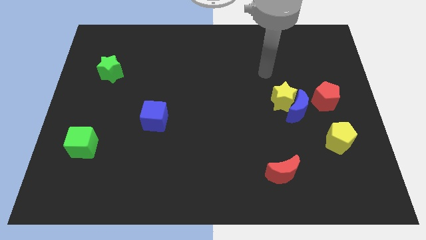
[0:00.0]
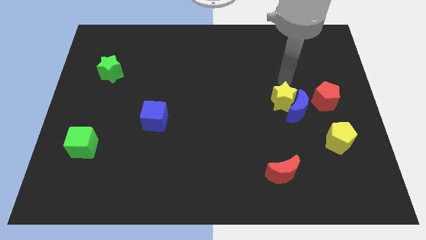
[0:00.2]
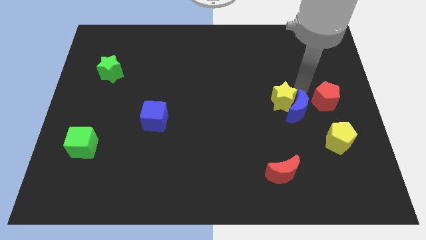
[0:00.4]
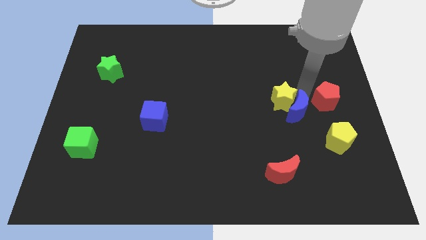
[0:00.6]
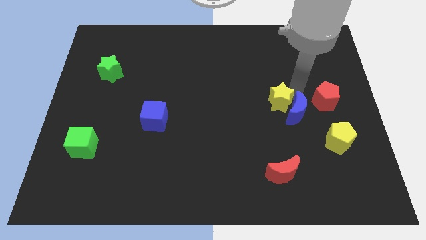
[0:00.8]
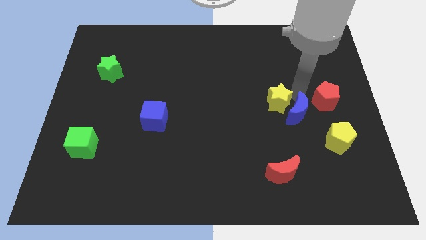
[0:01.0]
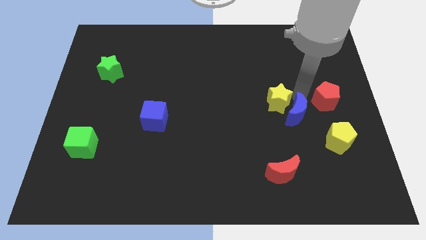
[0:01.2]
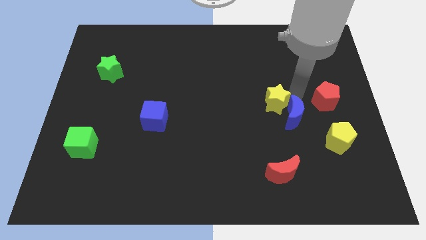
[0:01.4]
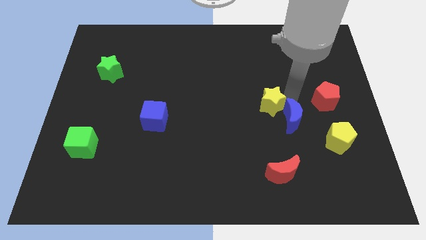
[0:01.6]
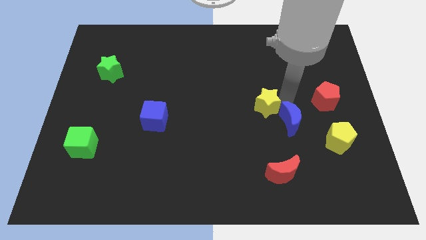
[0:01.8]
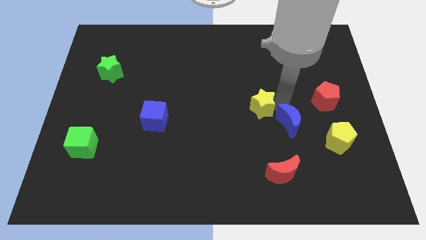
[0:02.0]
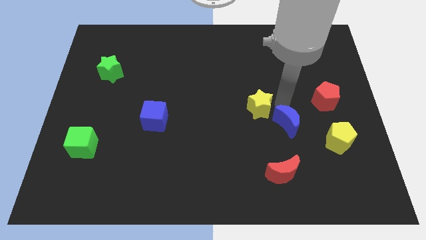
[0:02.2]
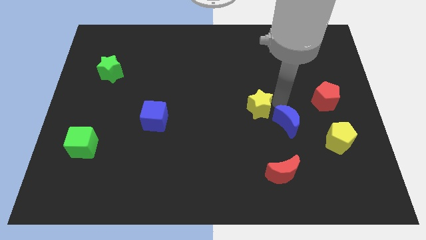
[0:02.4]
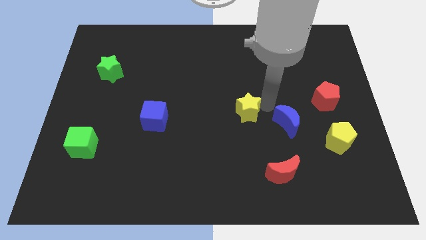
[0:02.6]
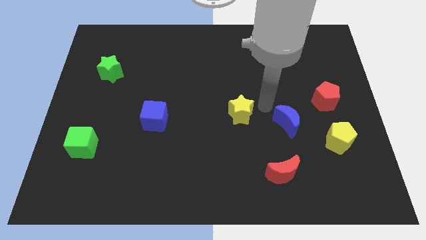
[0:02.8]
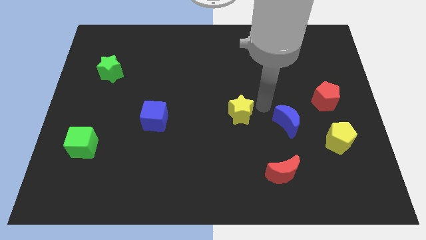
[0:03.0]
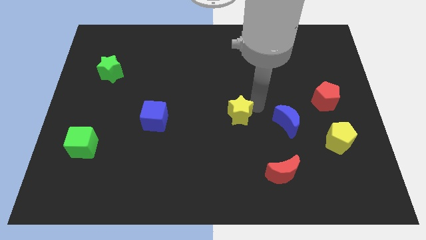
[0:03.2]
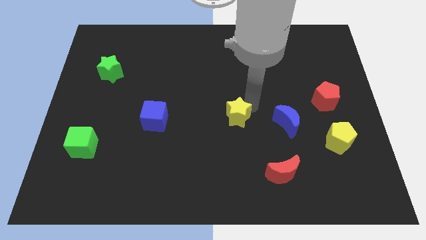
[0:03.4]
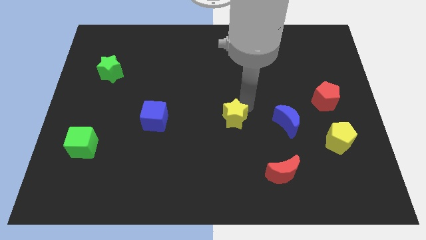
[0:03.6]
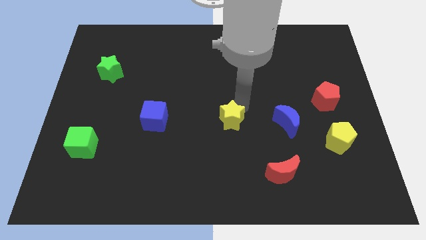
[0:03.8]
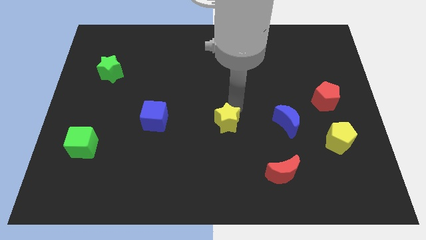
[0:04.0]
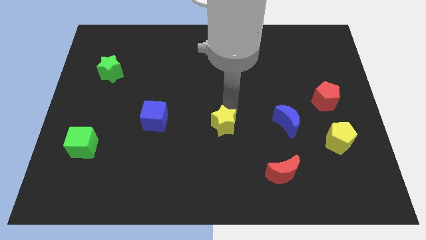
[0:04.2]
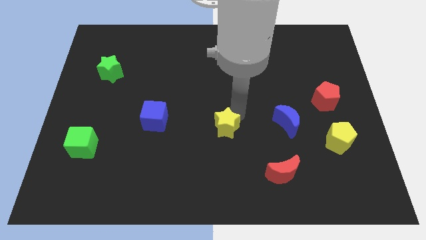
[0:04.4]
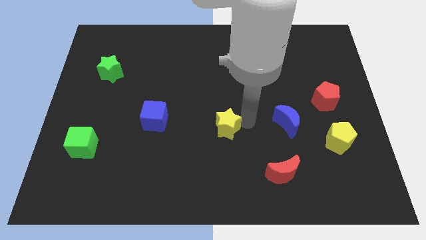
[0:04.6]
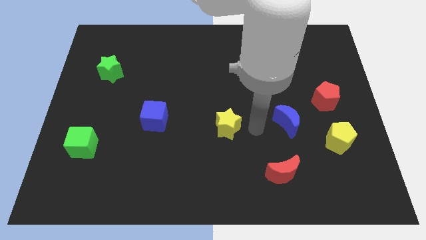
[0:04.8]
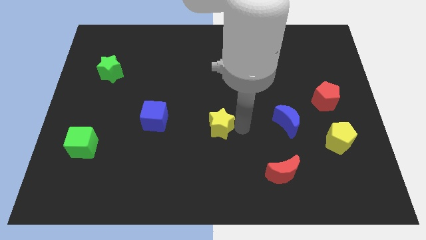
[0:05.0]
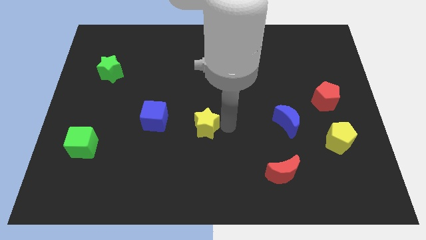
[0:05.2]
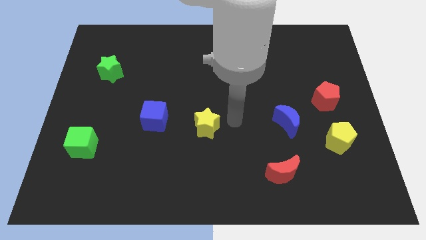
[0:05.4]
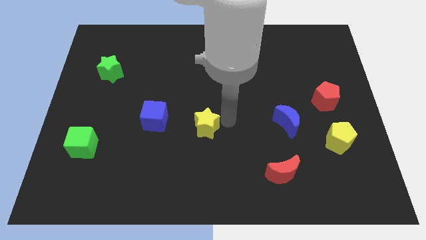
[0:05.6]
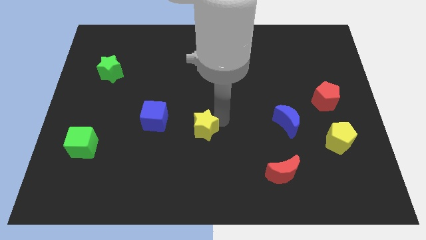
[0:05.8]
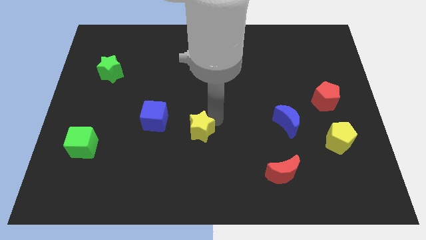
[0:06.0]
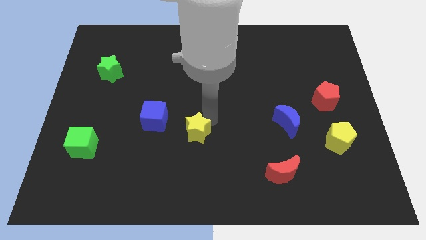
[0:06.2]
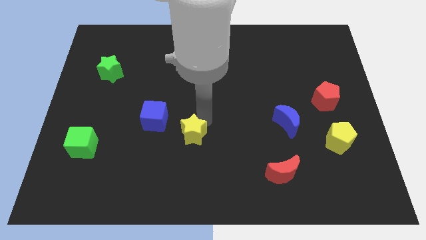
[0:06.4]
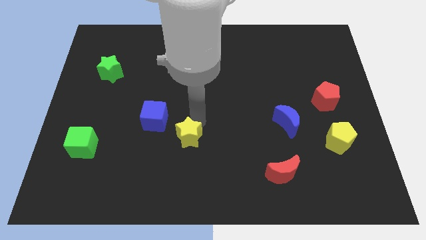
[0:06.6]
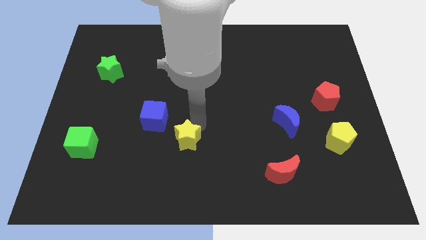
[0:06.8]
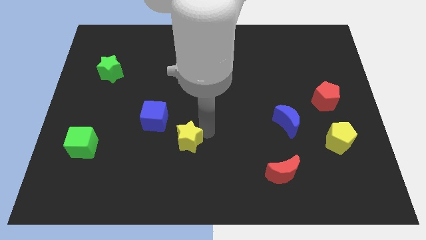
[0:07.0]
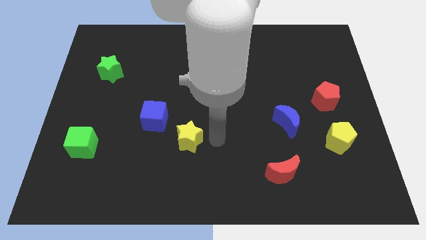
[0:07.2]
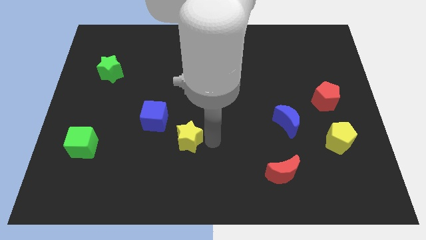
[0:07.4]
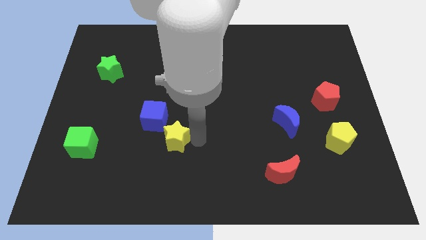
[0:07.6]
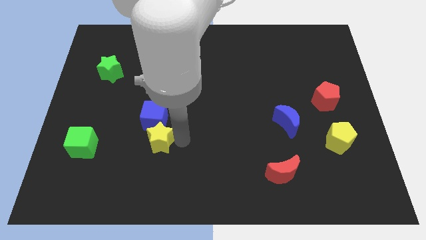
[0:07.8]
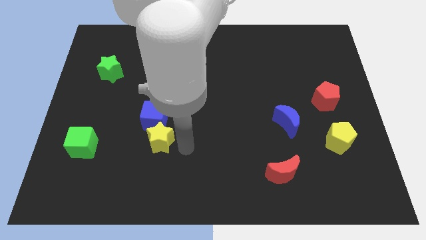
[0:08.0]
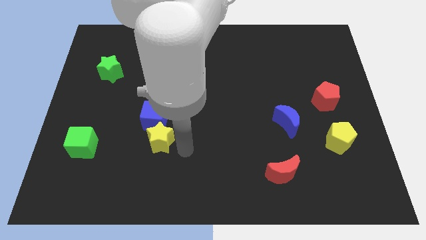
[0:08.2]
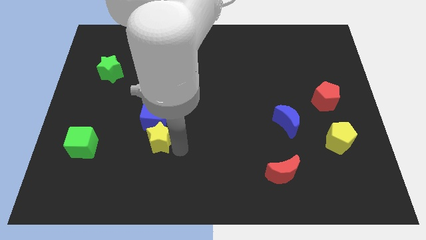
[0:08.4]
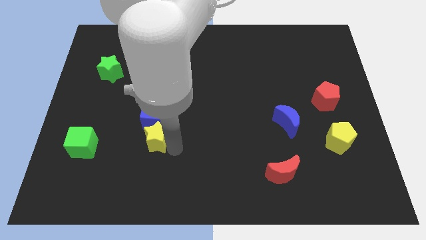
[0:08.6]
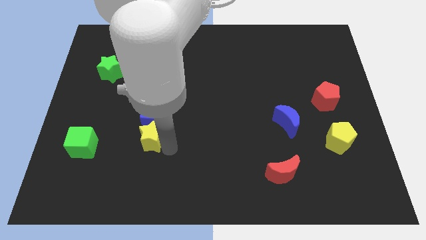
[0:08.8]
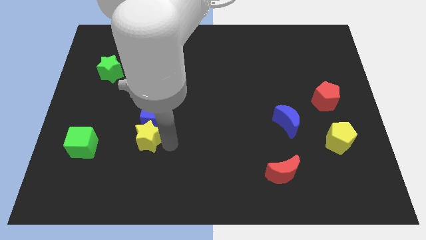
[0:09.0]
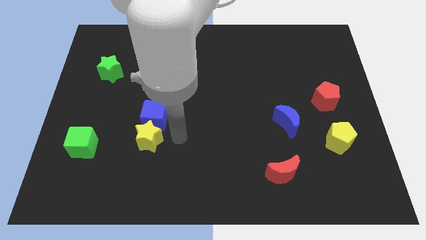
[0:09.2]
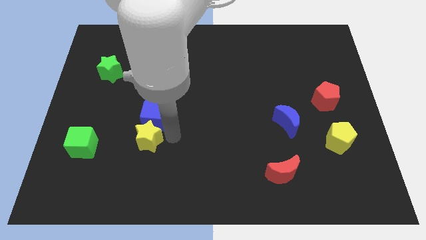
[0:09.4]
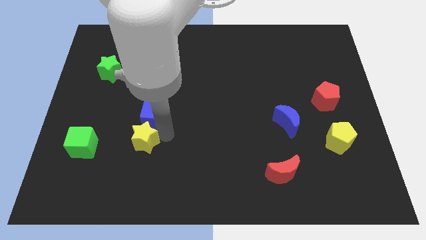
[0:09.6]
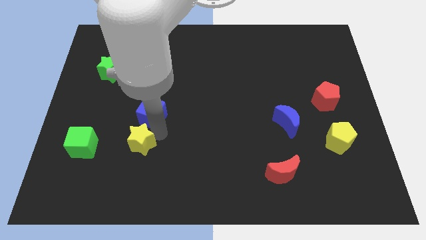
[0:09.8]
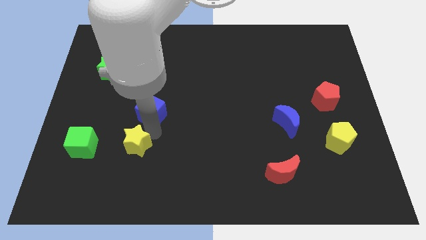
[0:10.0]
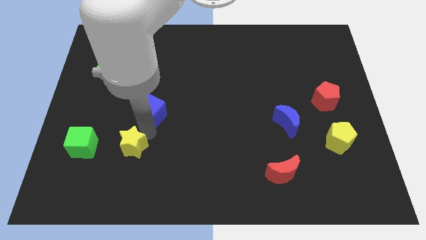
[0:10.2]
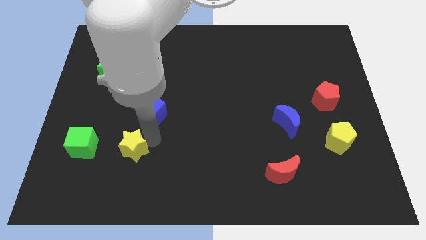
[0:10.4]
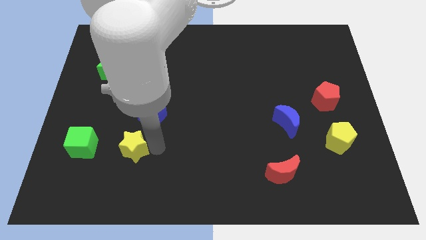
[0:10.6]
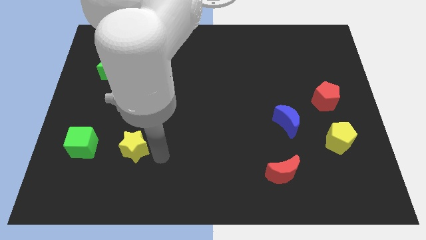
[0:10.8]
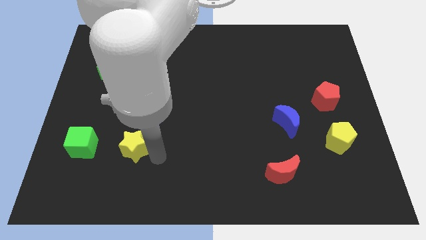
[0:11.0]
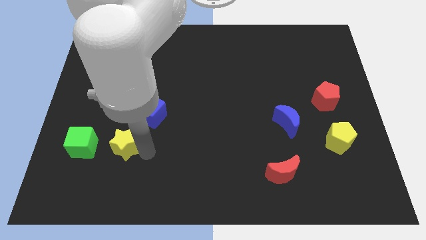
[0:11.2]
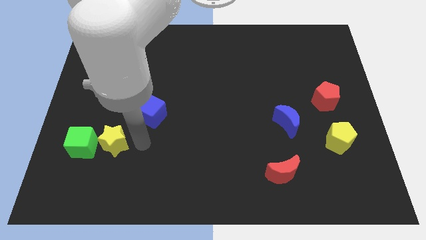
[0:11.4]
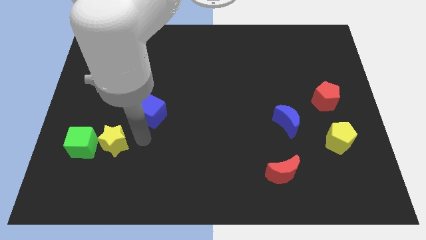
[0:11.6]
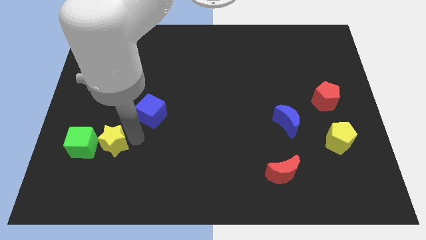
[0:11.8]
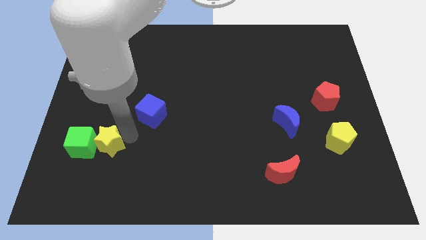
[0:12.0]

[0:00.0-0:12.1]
slide the yellow star next to the green cube

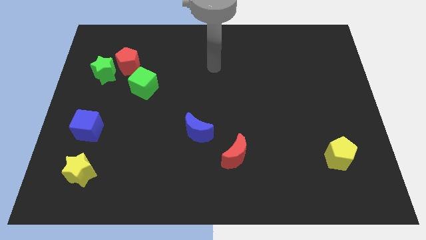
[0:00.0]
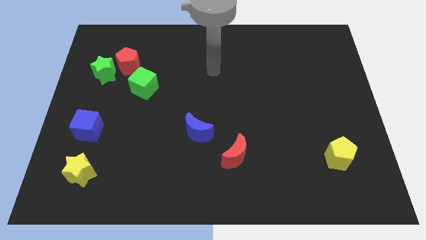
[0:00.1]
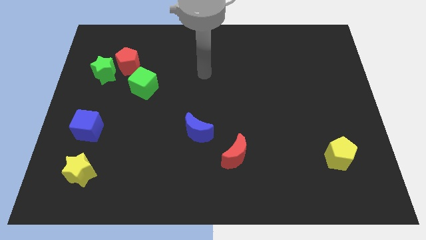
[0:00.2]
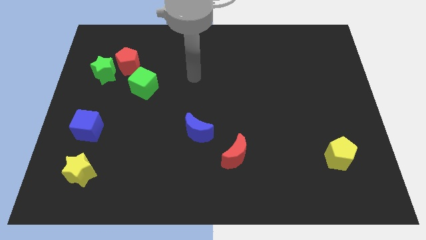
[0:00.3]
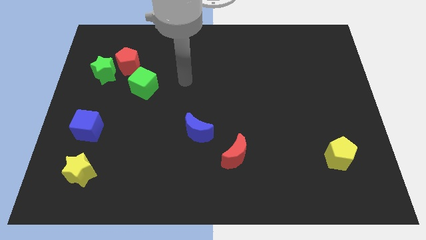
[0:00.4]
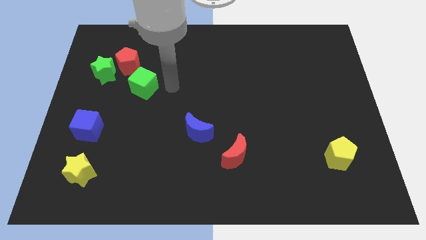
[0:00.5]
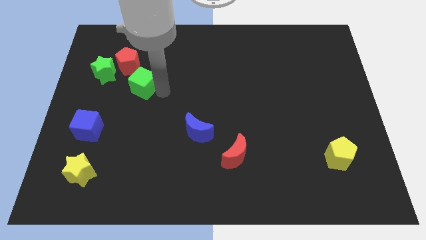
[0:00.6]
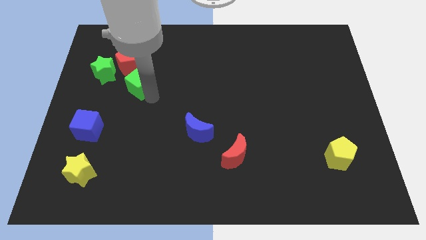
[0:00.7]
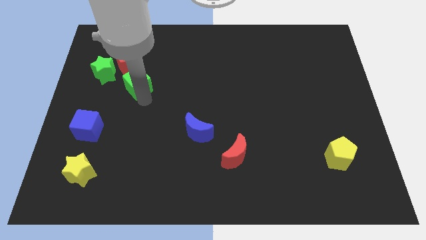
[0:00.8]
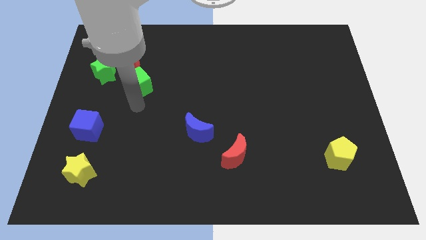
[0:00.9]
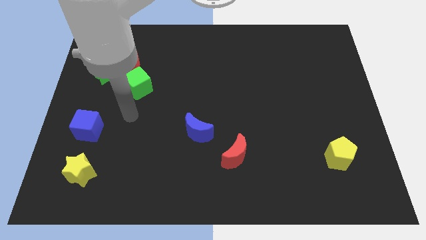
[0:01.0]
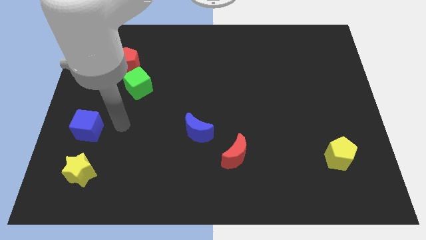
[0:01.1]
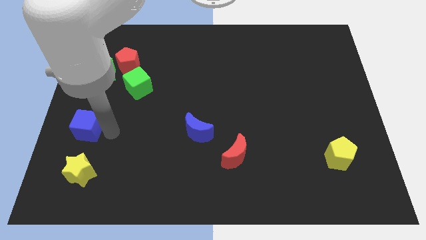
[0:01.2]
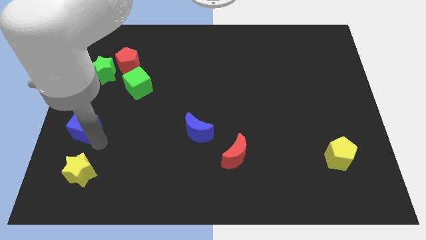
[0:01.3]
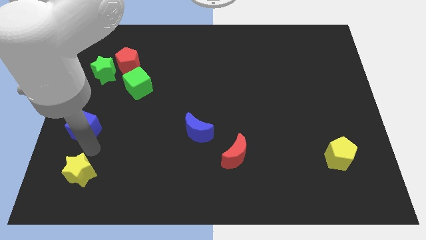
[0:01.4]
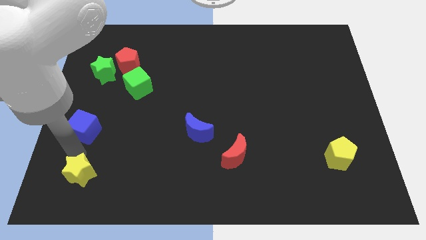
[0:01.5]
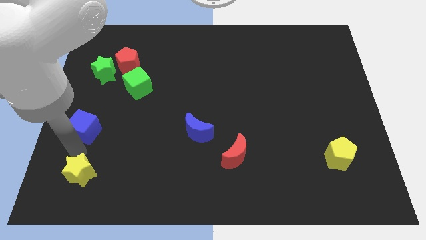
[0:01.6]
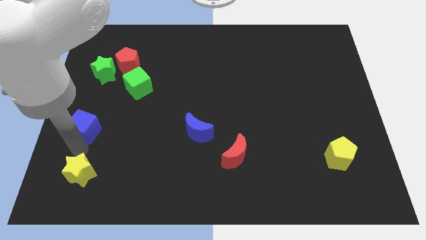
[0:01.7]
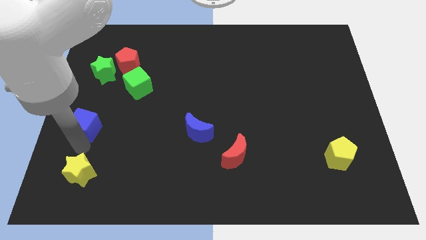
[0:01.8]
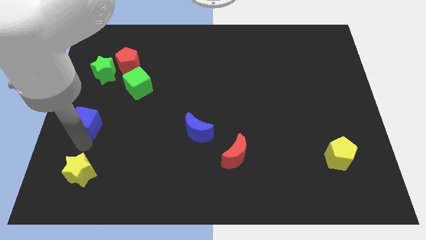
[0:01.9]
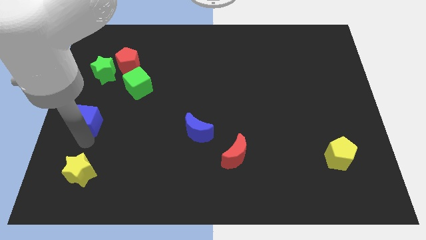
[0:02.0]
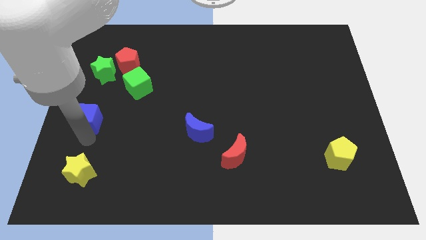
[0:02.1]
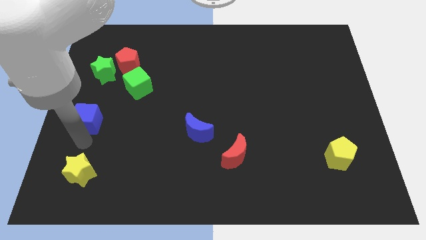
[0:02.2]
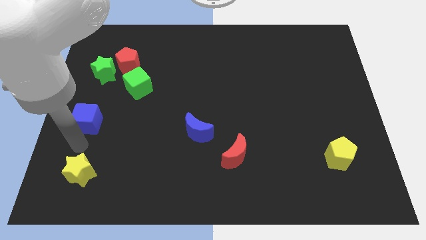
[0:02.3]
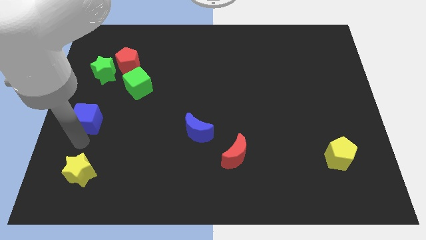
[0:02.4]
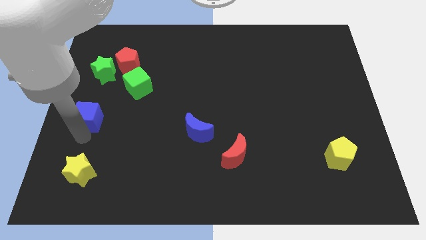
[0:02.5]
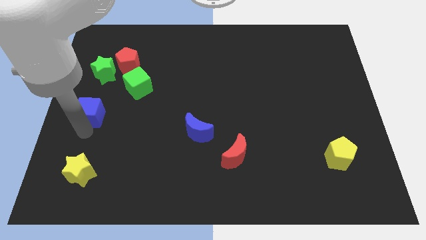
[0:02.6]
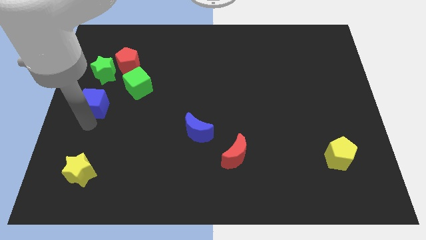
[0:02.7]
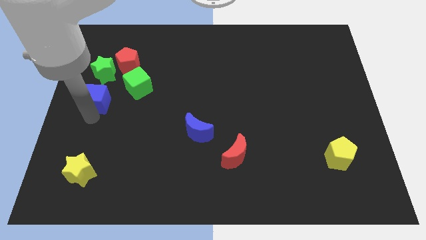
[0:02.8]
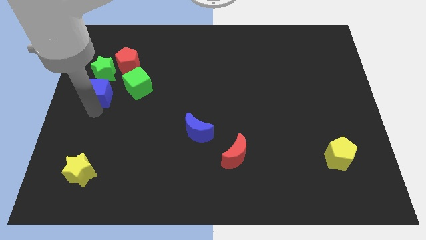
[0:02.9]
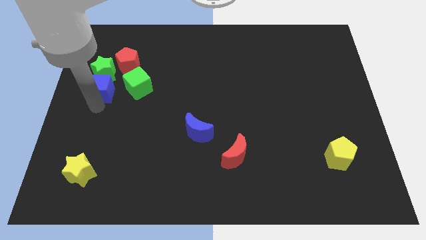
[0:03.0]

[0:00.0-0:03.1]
put the blue cube towards the green star
